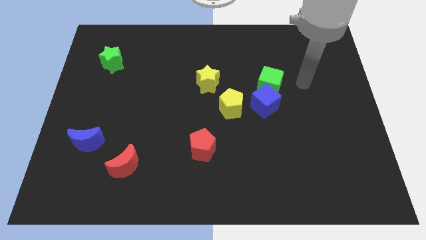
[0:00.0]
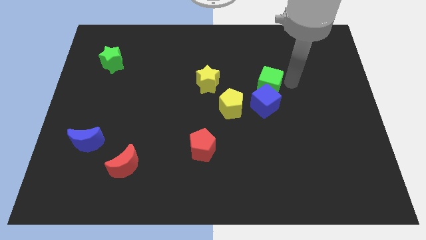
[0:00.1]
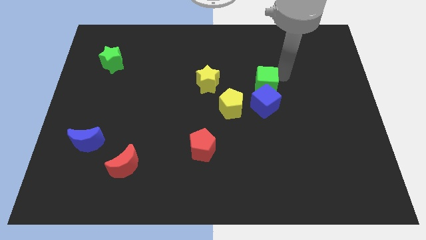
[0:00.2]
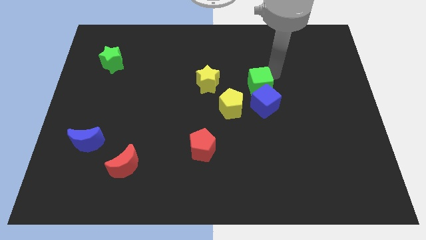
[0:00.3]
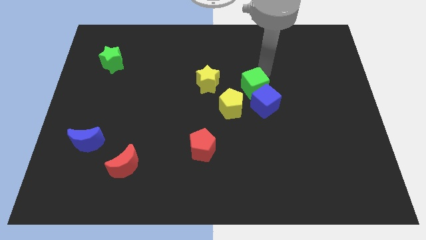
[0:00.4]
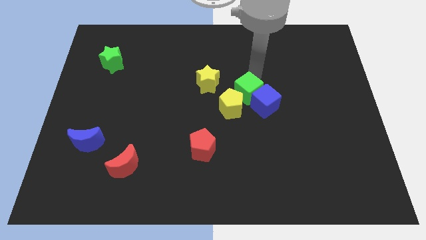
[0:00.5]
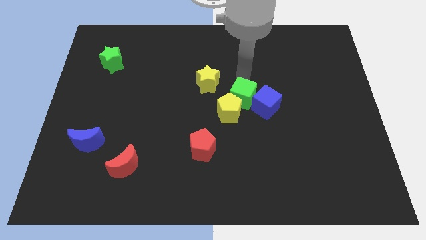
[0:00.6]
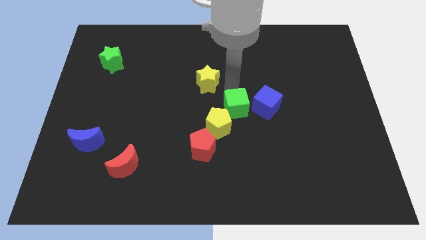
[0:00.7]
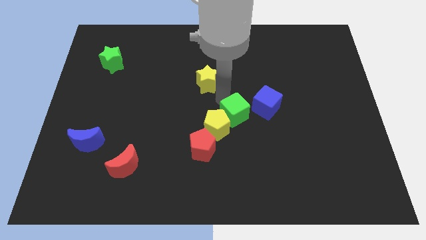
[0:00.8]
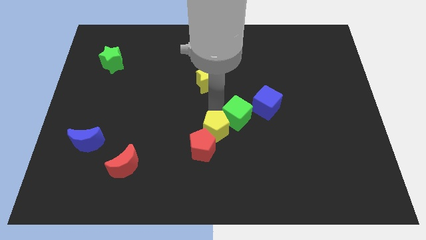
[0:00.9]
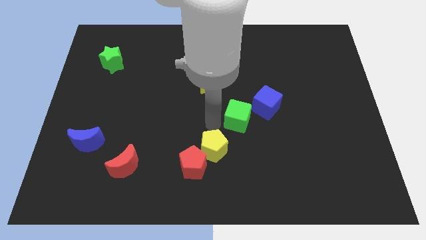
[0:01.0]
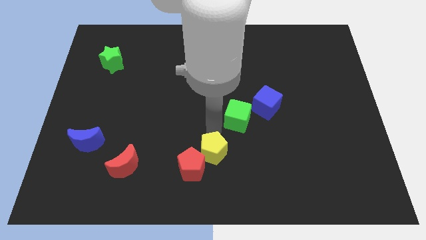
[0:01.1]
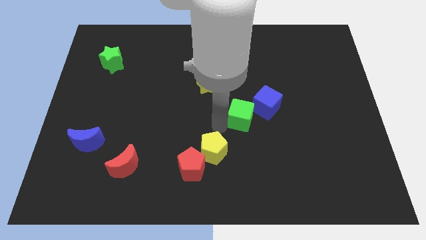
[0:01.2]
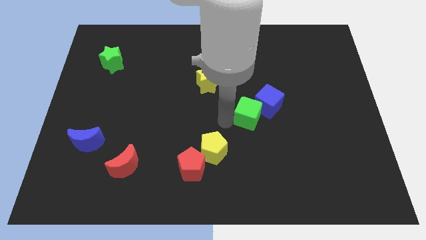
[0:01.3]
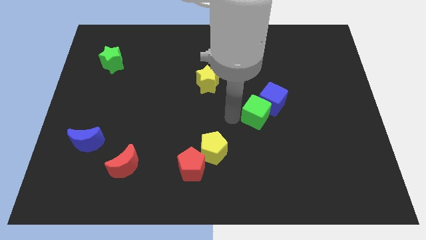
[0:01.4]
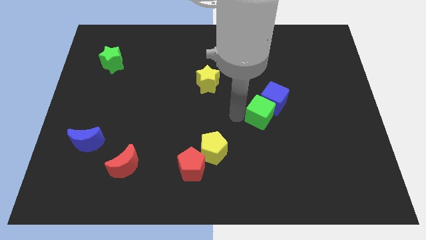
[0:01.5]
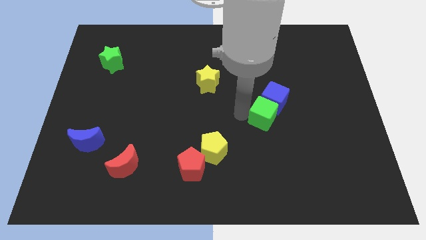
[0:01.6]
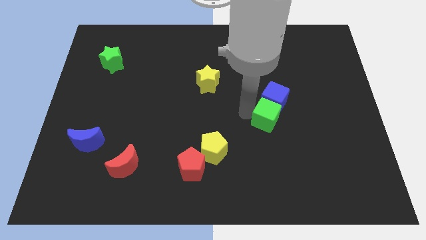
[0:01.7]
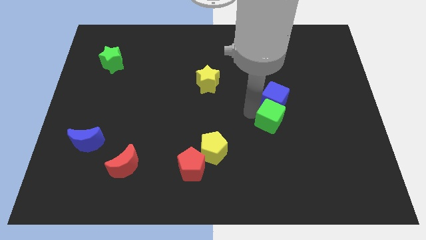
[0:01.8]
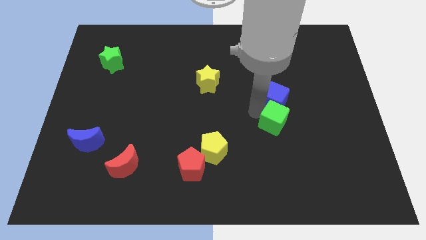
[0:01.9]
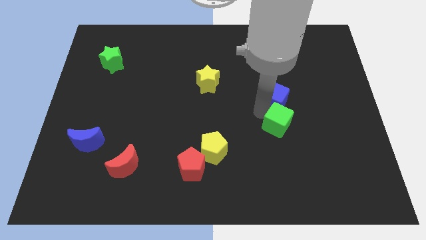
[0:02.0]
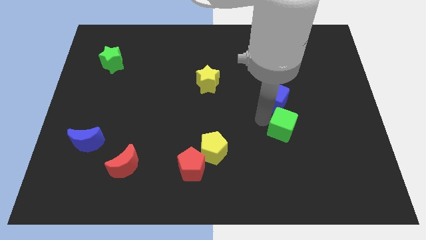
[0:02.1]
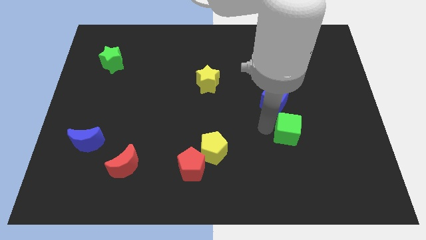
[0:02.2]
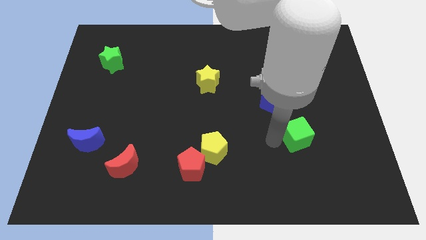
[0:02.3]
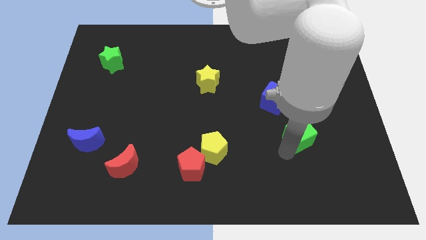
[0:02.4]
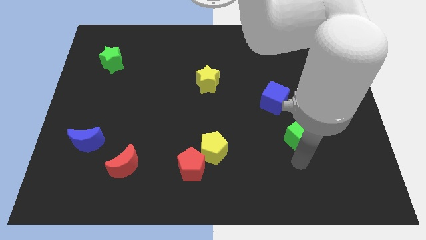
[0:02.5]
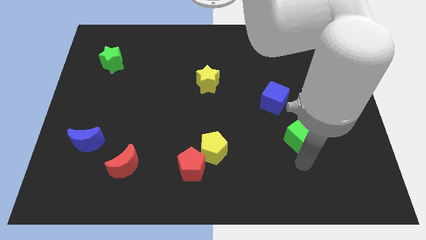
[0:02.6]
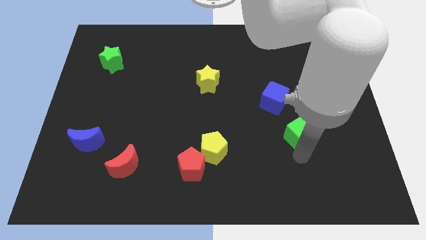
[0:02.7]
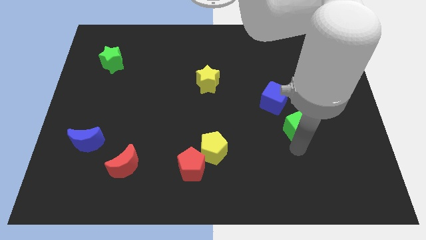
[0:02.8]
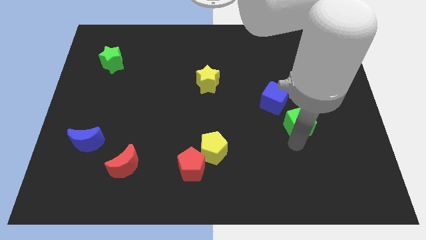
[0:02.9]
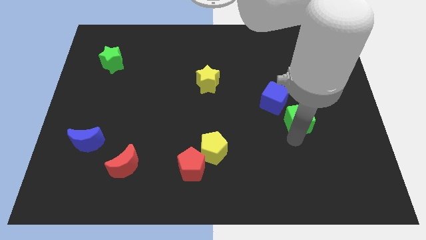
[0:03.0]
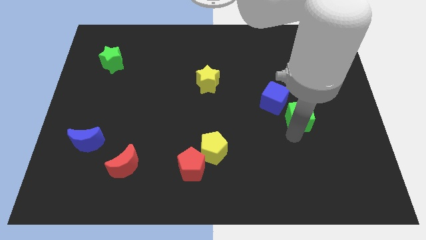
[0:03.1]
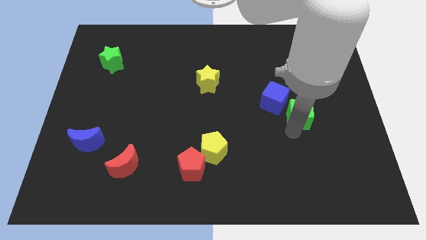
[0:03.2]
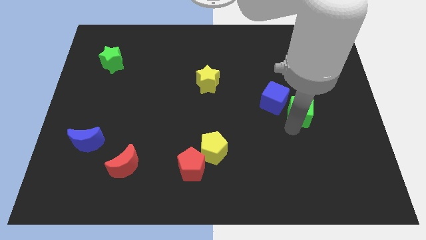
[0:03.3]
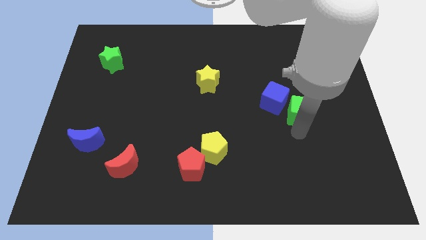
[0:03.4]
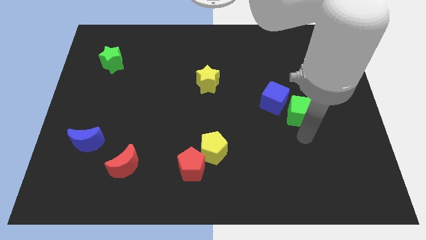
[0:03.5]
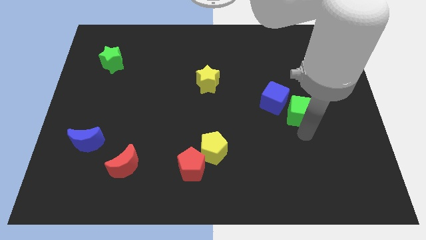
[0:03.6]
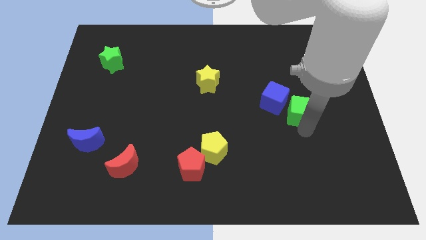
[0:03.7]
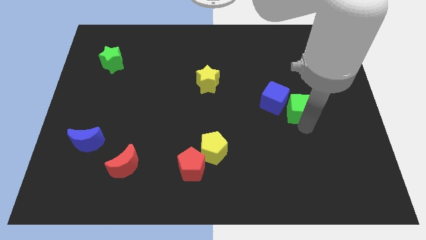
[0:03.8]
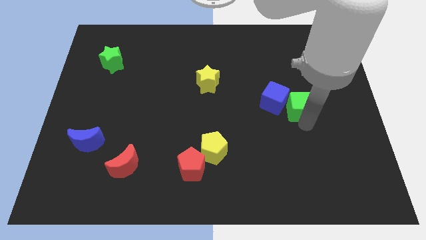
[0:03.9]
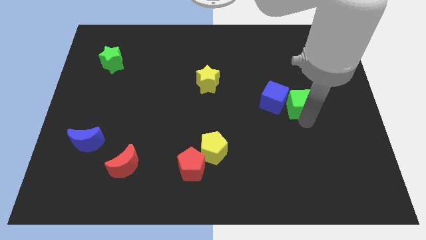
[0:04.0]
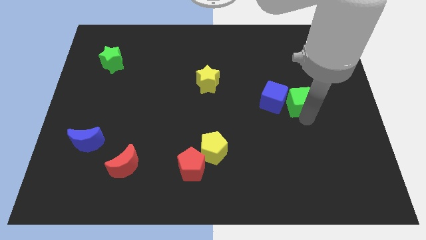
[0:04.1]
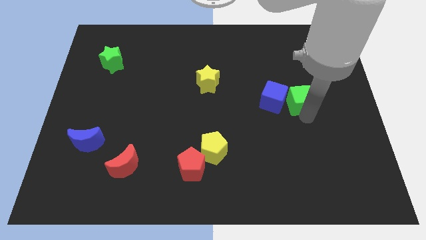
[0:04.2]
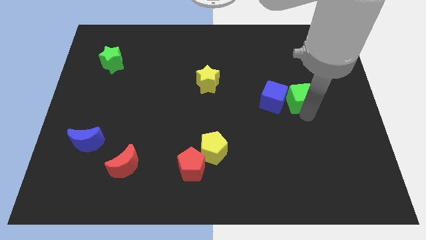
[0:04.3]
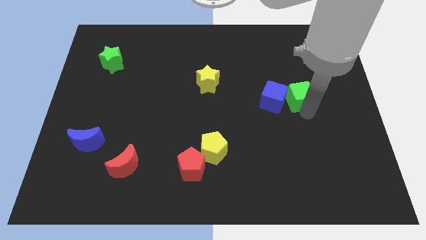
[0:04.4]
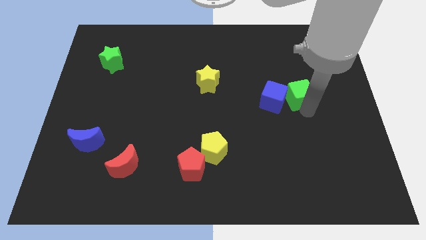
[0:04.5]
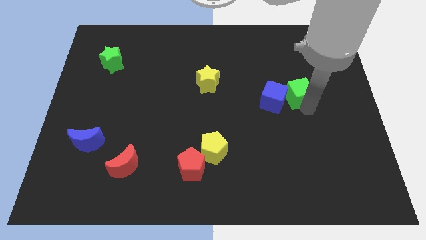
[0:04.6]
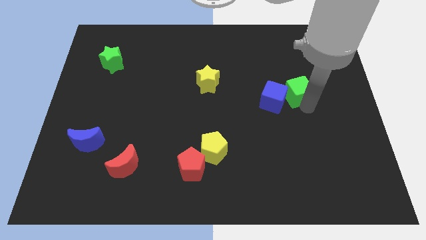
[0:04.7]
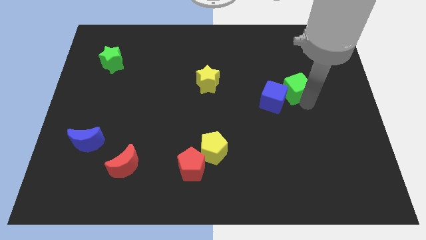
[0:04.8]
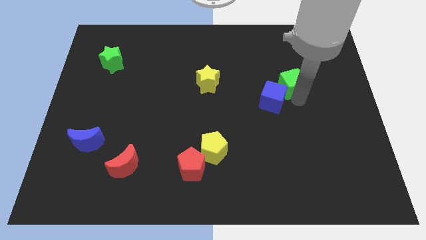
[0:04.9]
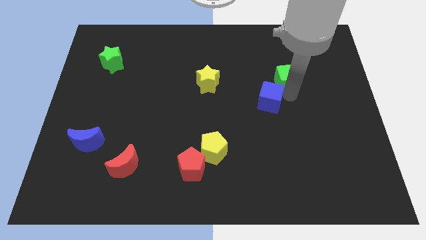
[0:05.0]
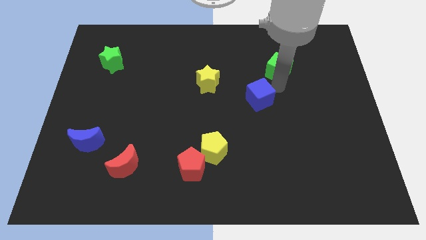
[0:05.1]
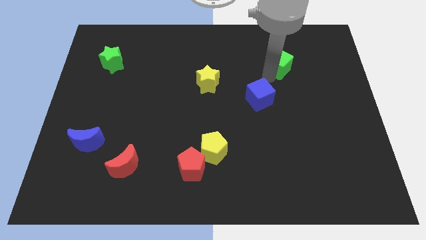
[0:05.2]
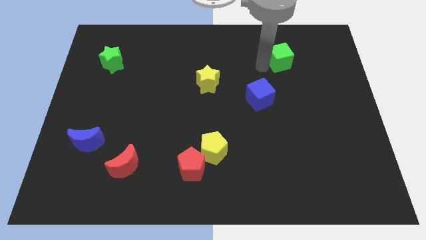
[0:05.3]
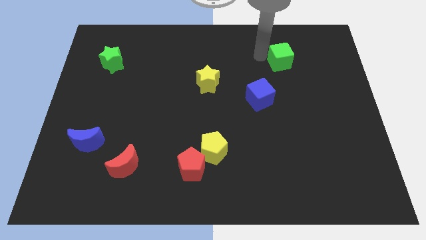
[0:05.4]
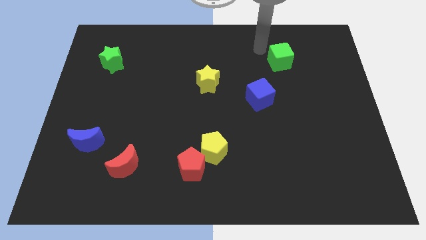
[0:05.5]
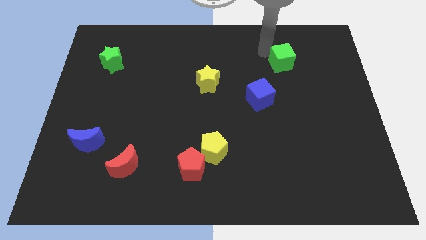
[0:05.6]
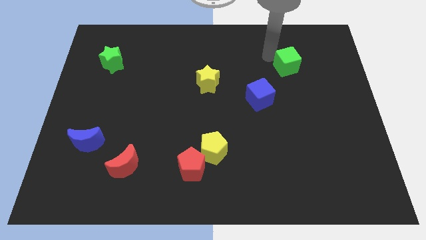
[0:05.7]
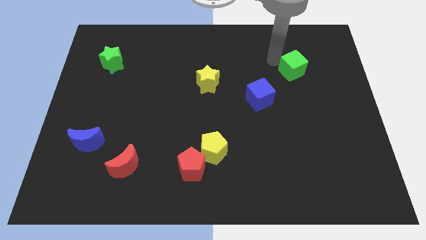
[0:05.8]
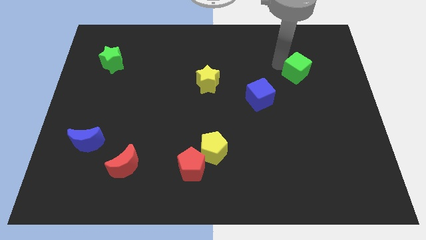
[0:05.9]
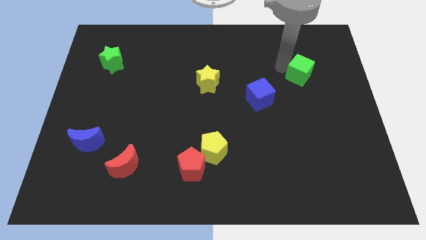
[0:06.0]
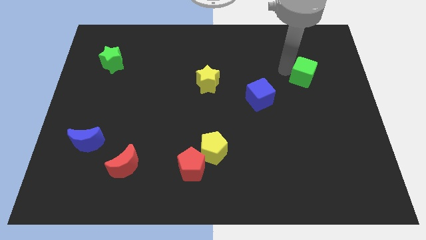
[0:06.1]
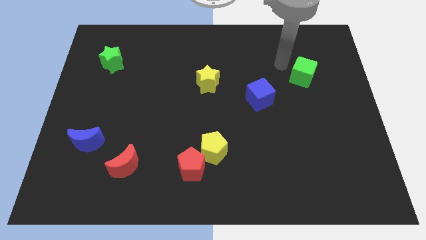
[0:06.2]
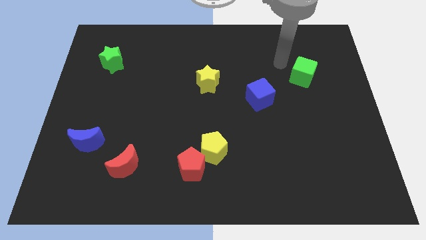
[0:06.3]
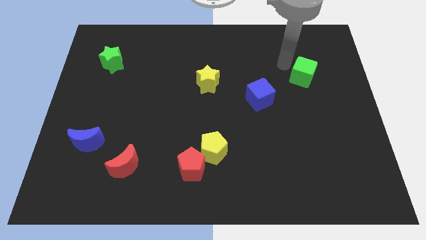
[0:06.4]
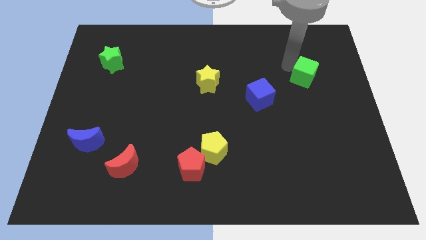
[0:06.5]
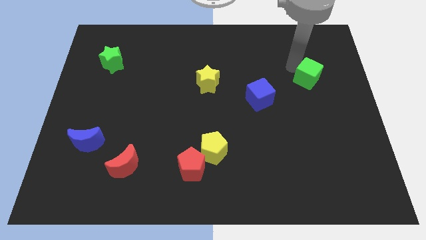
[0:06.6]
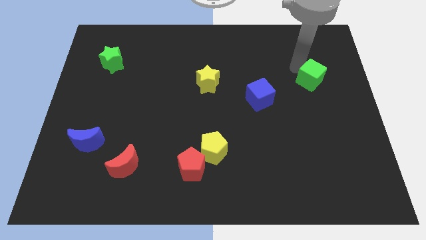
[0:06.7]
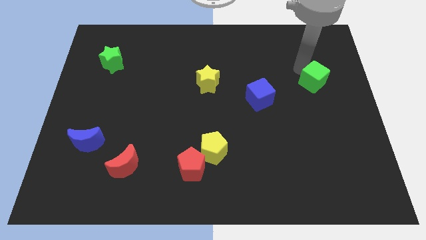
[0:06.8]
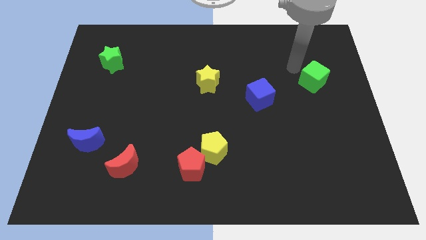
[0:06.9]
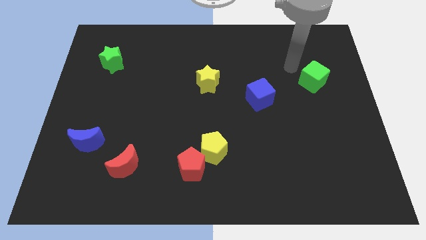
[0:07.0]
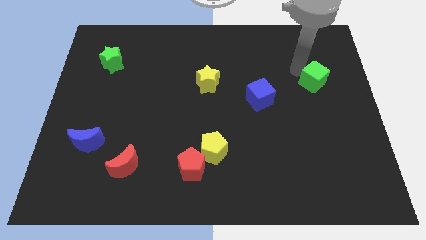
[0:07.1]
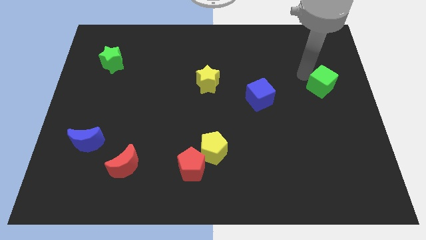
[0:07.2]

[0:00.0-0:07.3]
slide the green cube to the right side of the board
